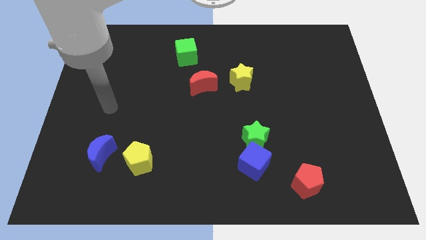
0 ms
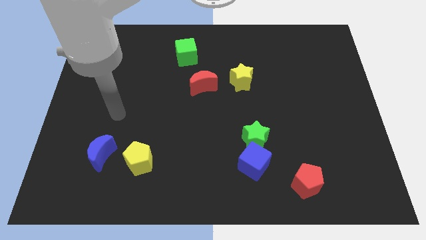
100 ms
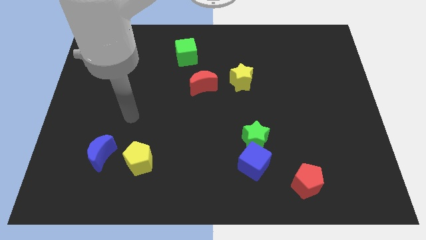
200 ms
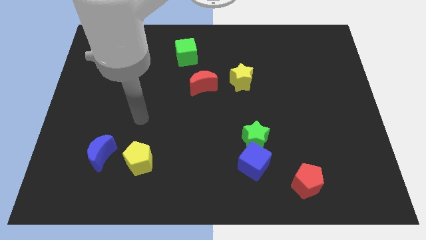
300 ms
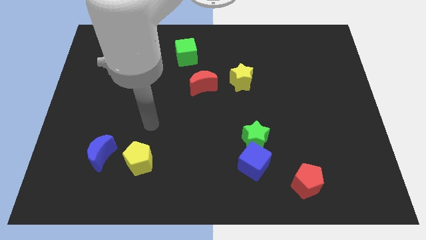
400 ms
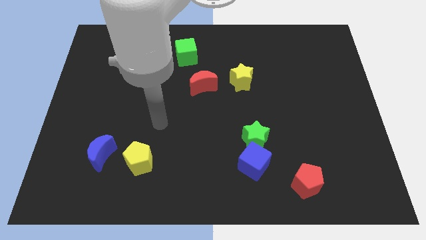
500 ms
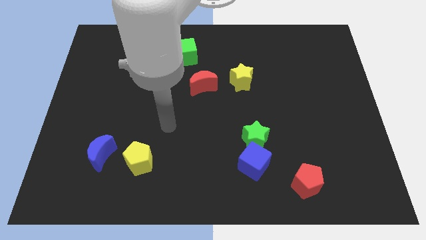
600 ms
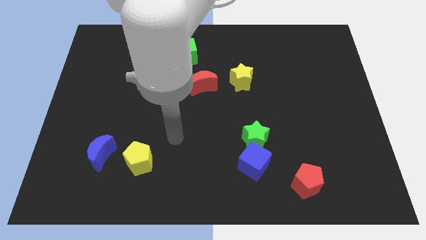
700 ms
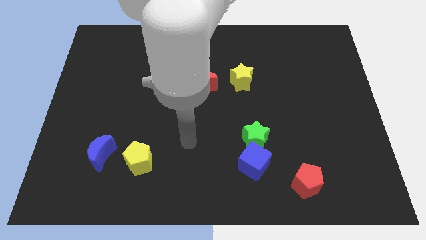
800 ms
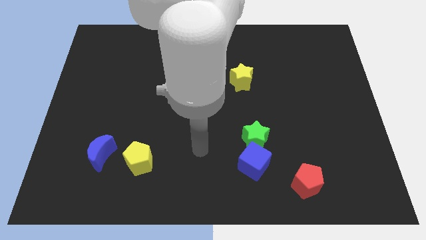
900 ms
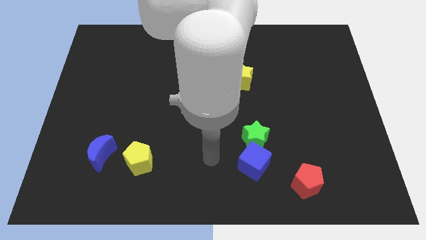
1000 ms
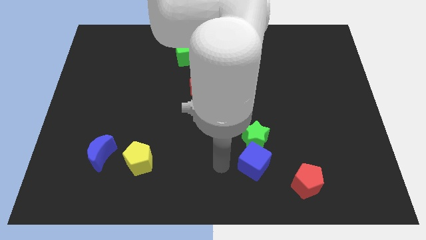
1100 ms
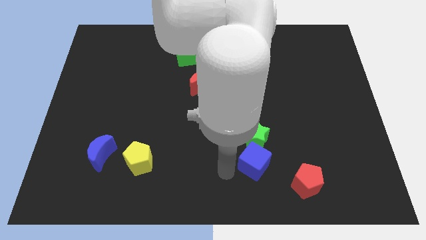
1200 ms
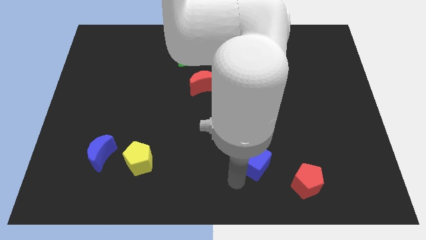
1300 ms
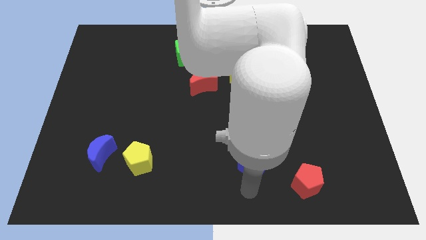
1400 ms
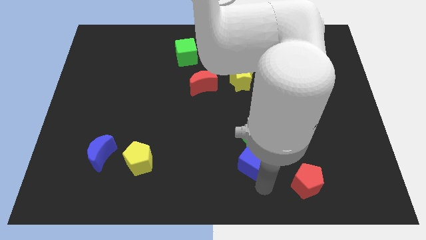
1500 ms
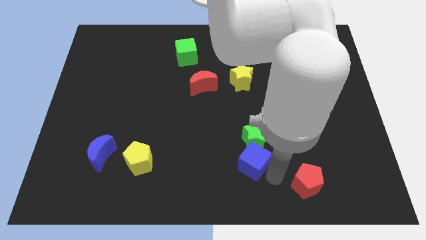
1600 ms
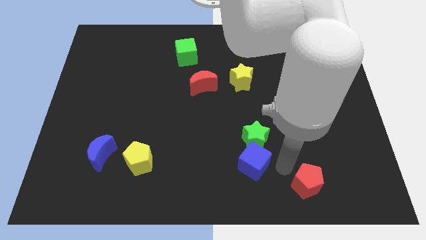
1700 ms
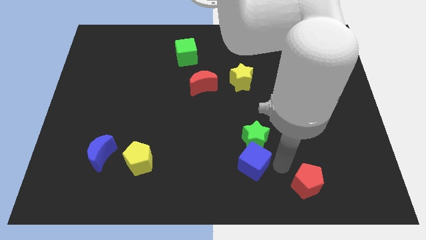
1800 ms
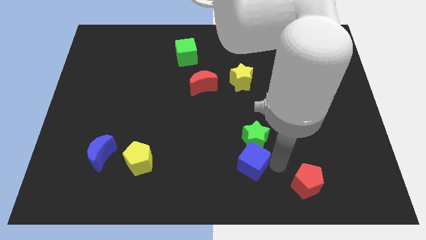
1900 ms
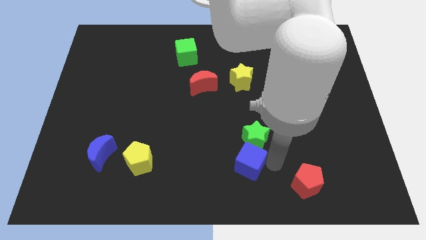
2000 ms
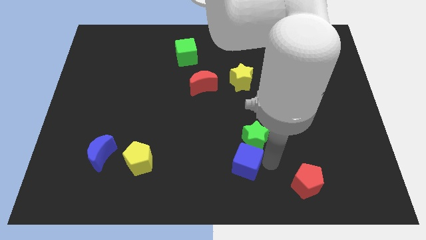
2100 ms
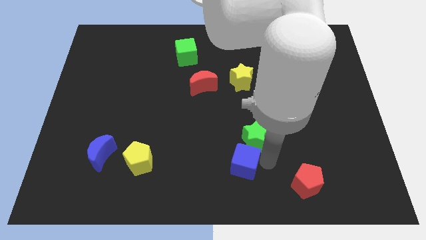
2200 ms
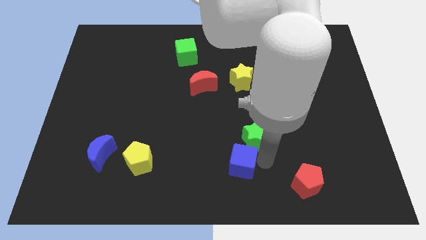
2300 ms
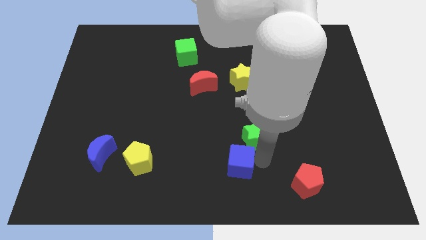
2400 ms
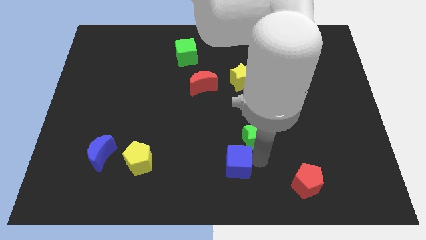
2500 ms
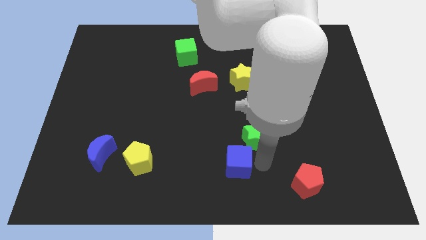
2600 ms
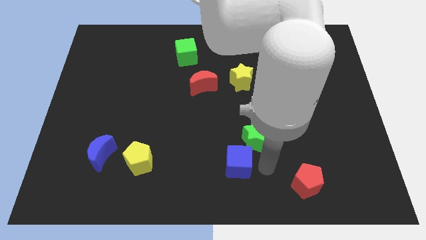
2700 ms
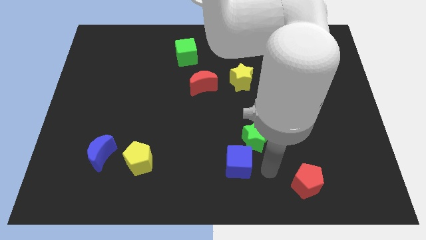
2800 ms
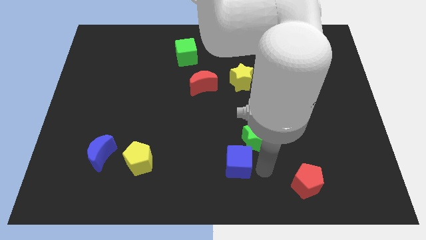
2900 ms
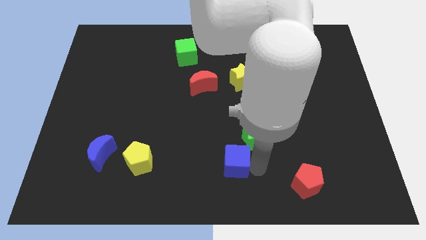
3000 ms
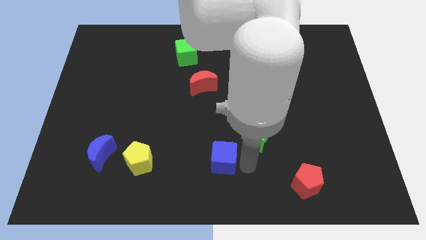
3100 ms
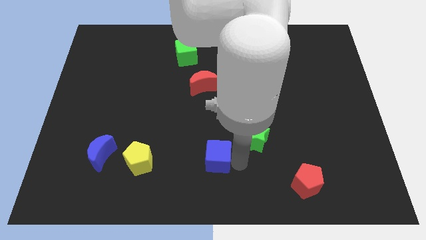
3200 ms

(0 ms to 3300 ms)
push the blue cube left a little bit

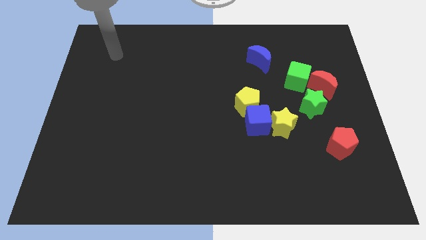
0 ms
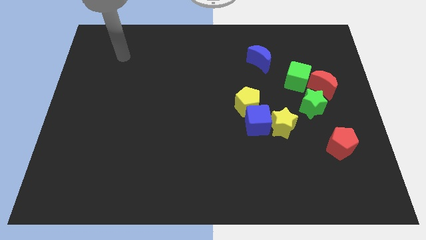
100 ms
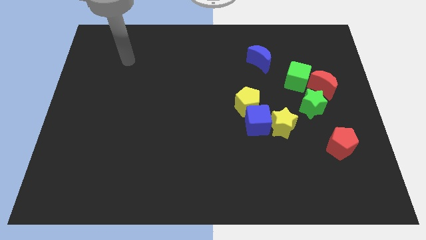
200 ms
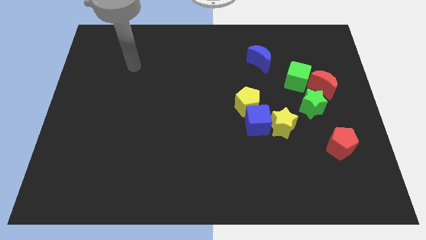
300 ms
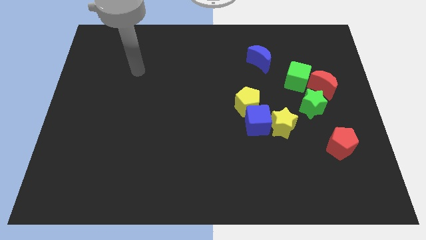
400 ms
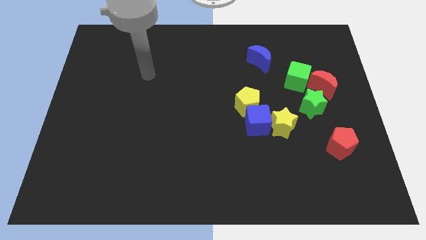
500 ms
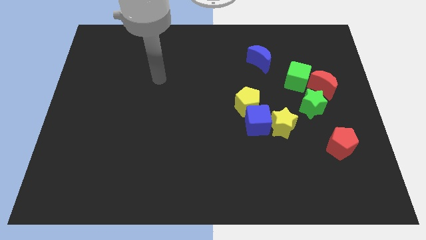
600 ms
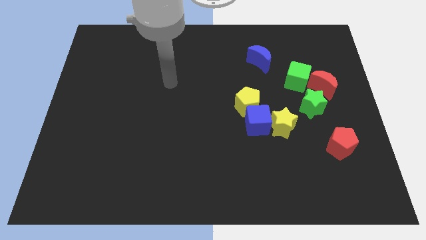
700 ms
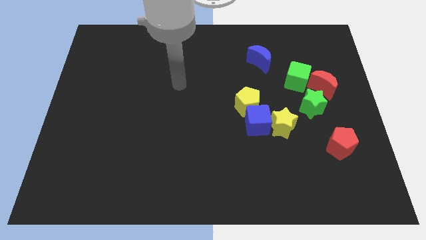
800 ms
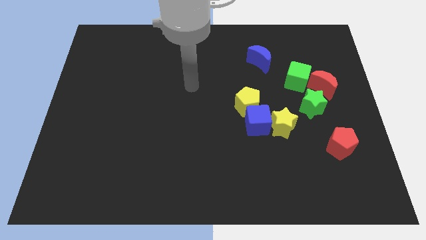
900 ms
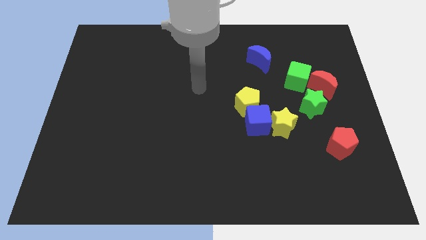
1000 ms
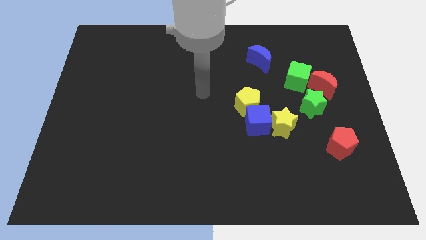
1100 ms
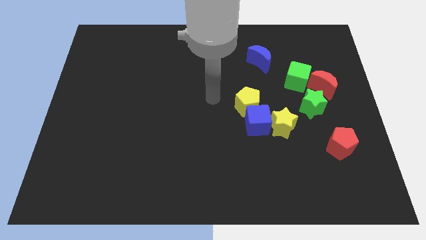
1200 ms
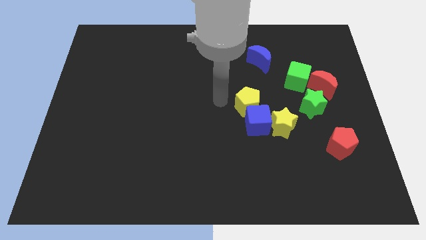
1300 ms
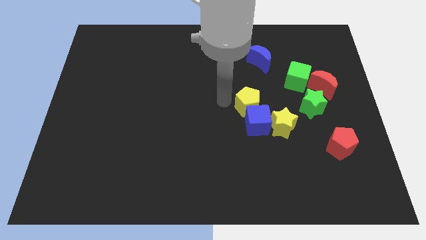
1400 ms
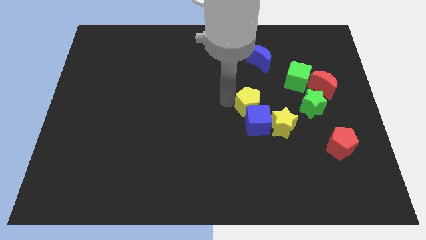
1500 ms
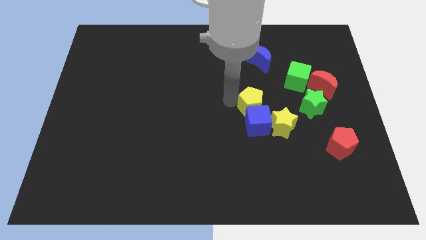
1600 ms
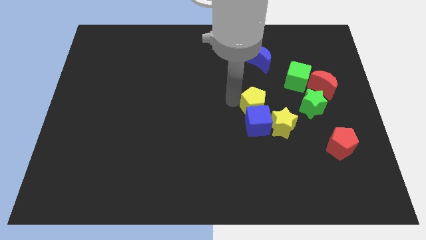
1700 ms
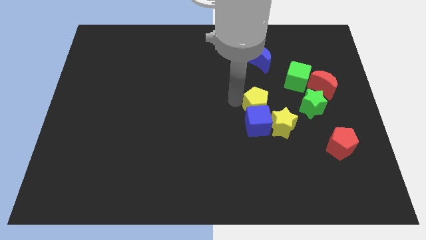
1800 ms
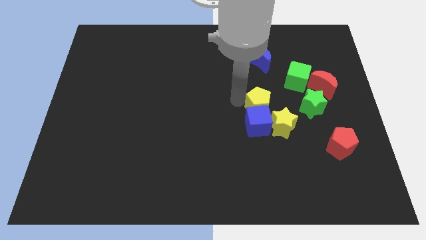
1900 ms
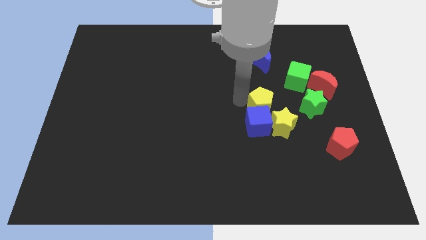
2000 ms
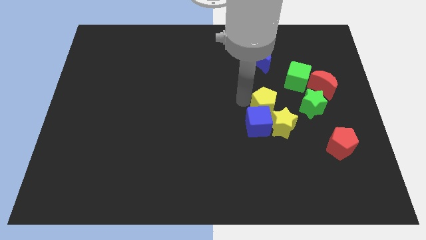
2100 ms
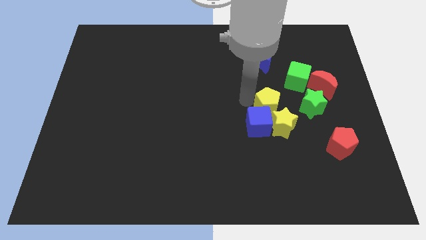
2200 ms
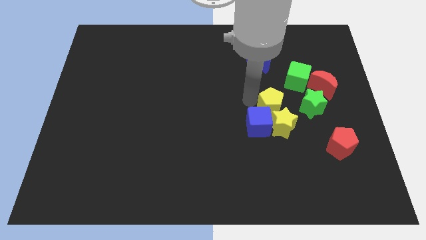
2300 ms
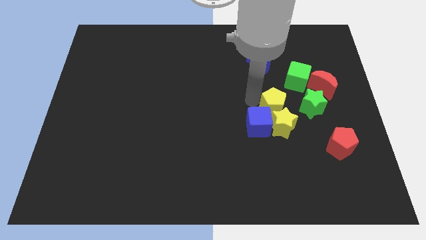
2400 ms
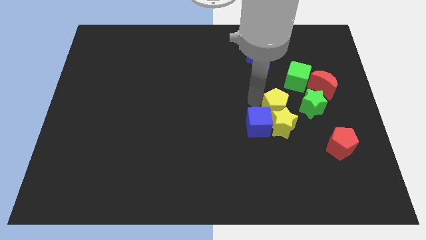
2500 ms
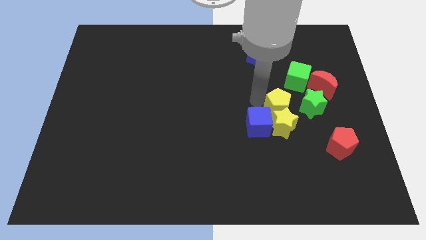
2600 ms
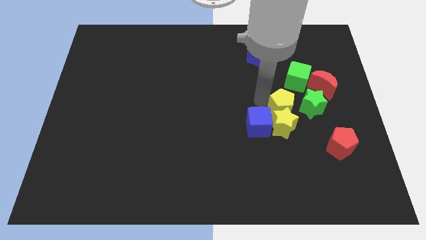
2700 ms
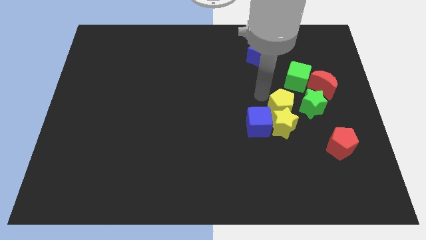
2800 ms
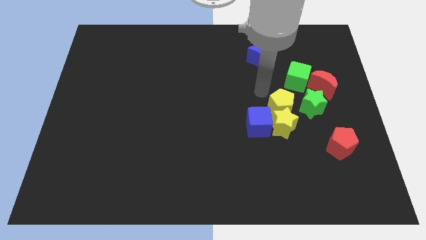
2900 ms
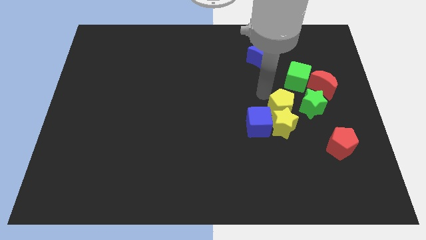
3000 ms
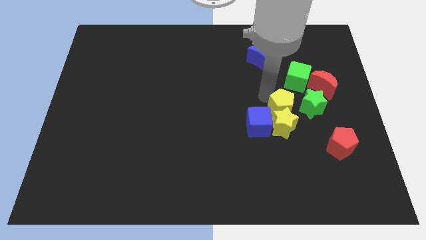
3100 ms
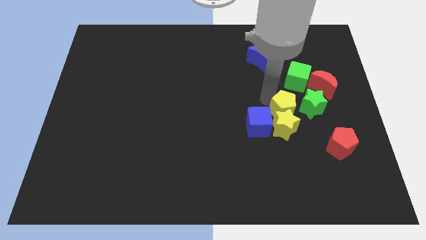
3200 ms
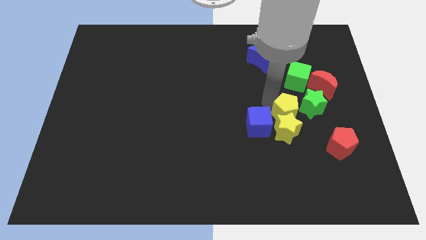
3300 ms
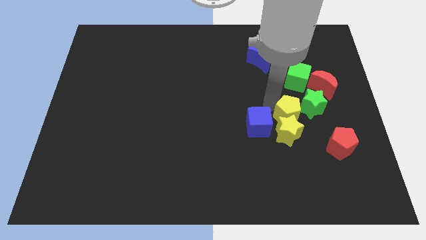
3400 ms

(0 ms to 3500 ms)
slide the yellow pentagon down and then right a little bit

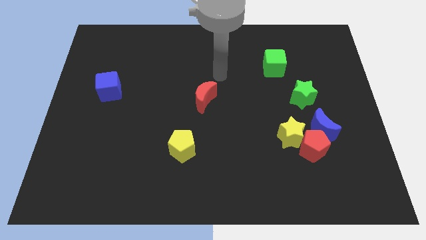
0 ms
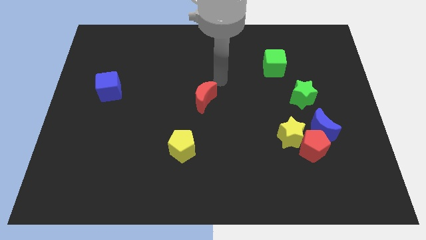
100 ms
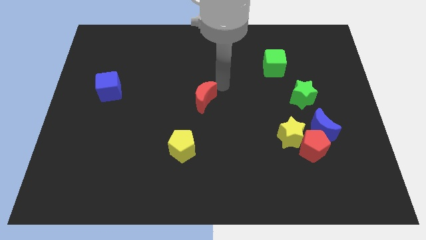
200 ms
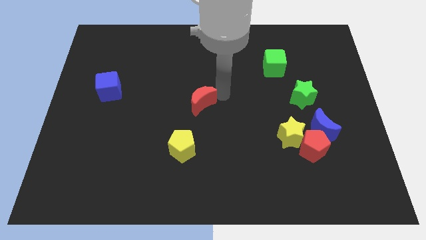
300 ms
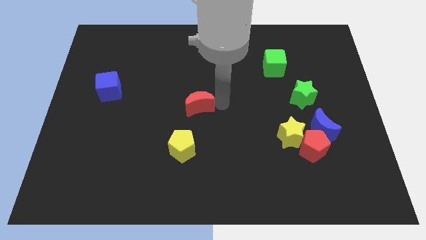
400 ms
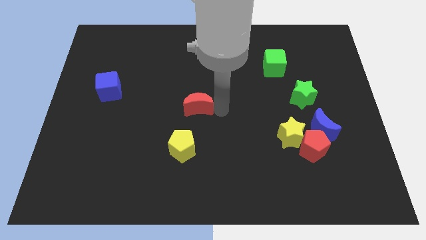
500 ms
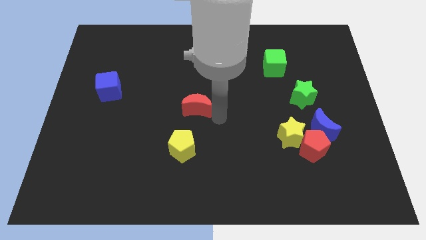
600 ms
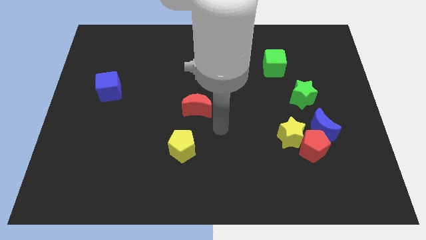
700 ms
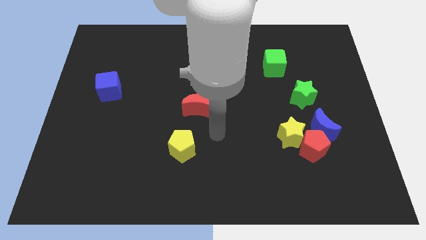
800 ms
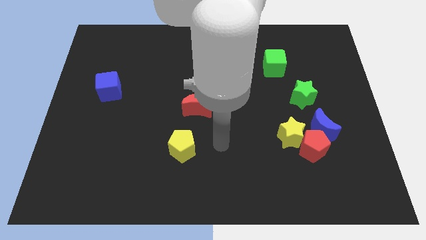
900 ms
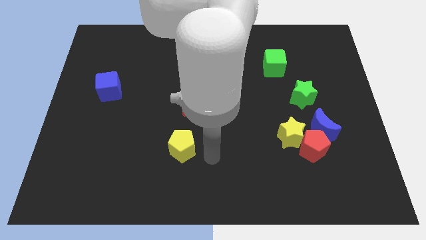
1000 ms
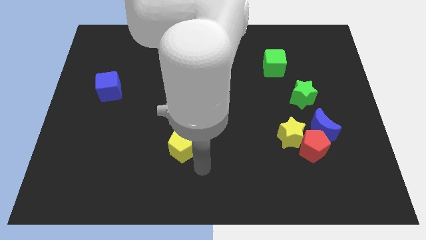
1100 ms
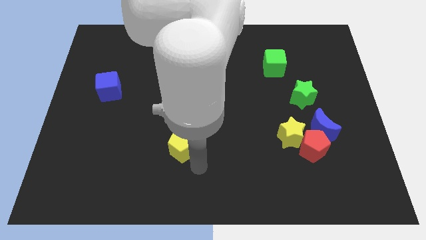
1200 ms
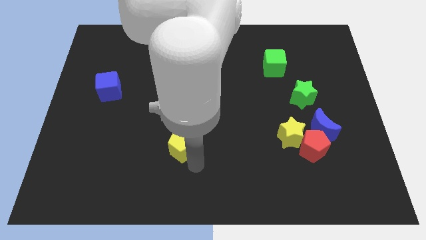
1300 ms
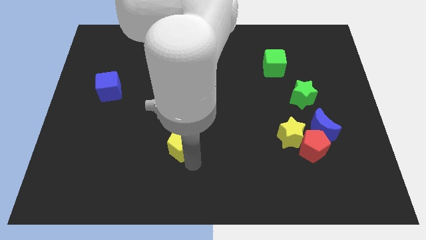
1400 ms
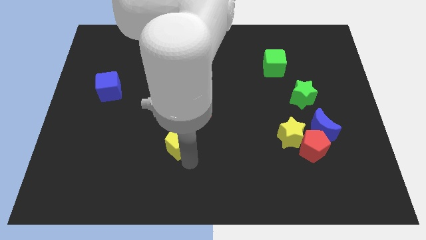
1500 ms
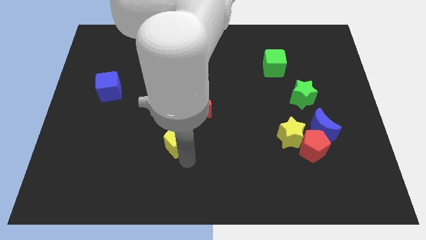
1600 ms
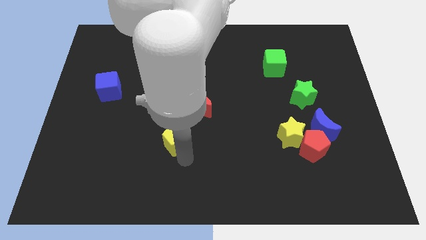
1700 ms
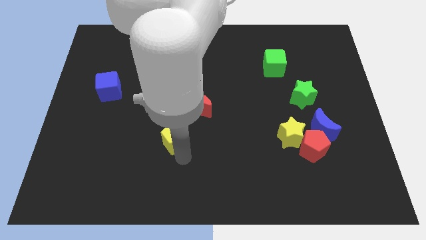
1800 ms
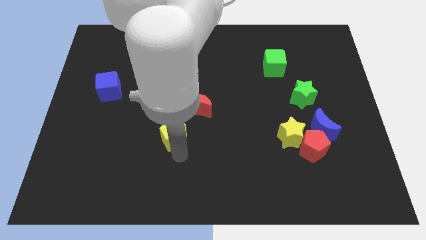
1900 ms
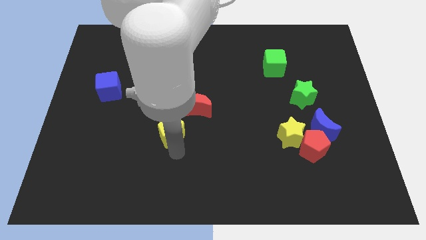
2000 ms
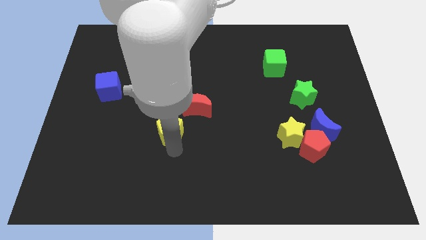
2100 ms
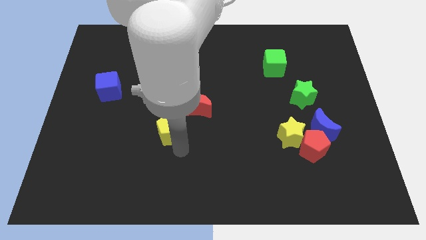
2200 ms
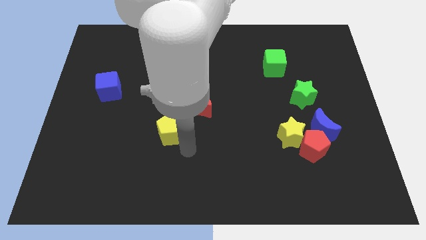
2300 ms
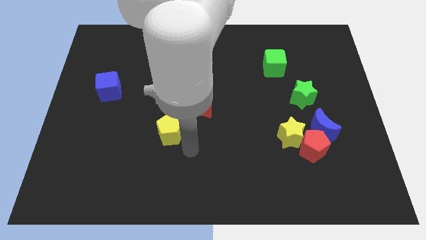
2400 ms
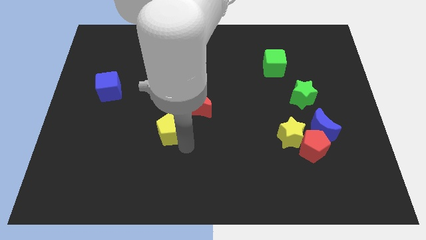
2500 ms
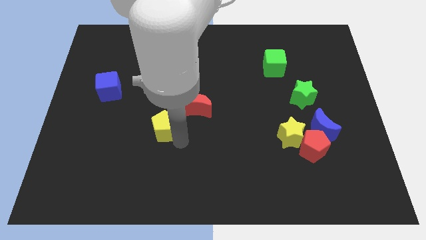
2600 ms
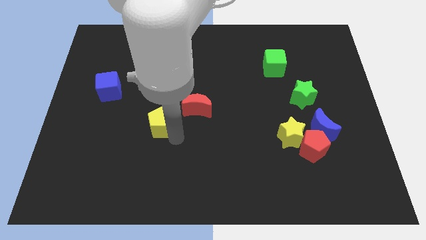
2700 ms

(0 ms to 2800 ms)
slightly push the yellow pentagon diagonally upwards and to the left
